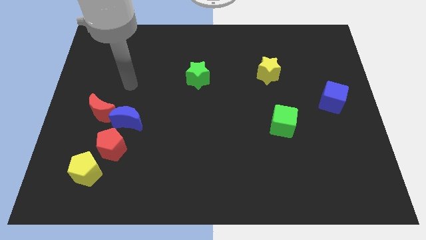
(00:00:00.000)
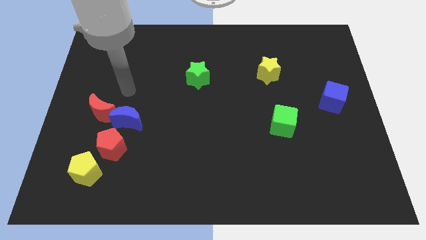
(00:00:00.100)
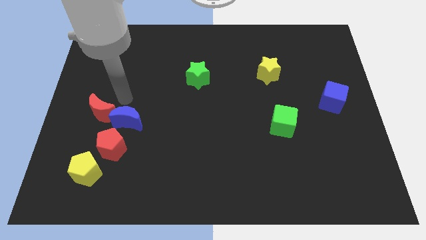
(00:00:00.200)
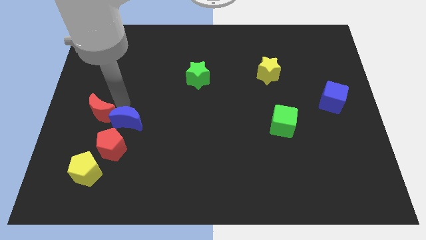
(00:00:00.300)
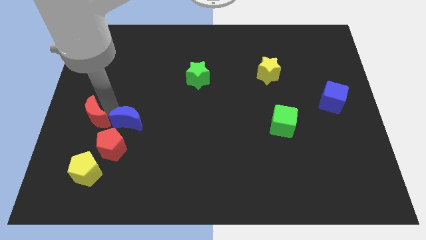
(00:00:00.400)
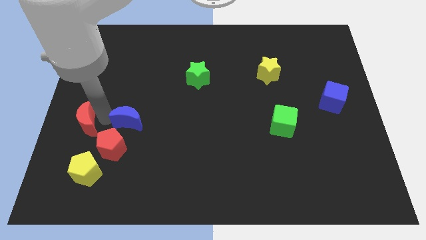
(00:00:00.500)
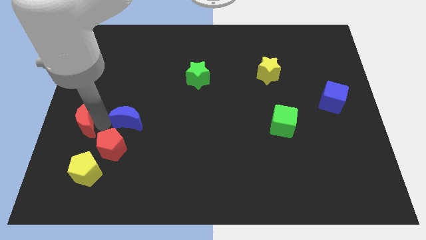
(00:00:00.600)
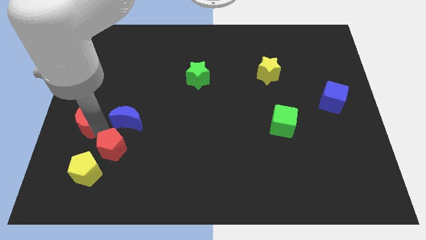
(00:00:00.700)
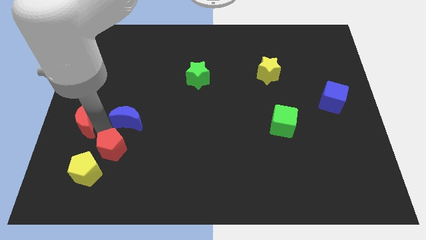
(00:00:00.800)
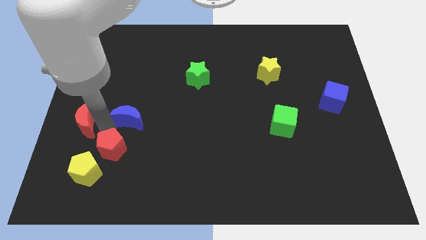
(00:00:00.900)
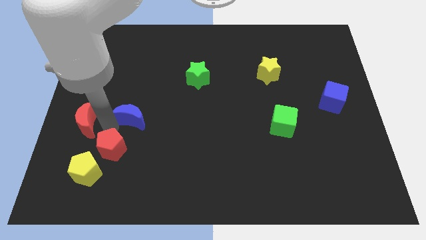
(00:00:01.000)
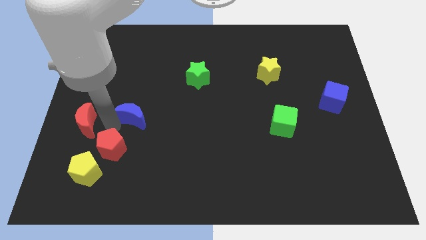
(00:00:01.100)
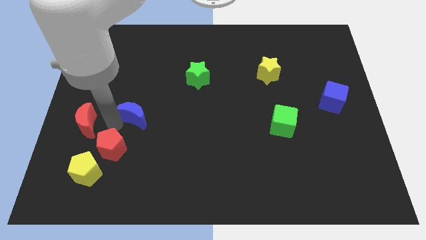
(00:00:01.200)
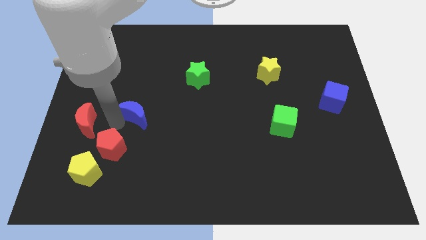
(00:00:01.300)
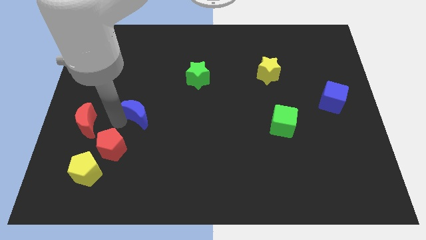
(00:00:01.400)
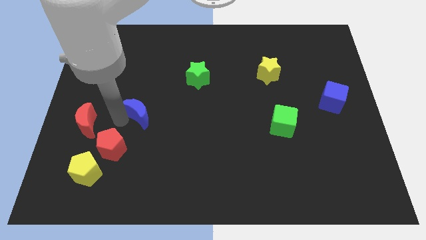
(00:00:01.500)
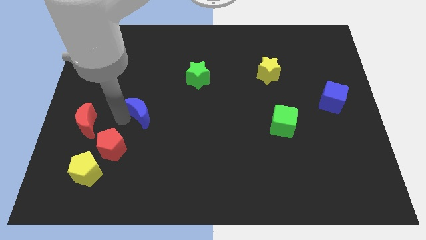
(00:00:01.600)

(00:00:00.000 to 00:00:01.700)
pull the blue moon apart from the red moon and red pentagon

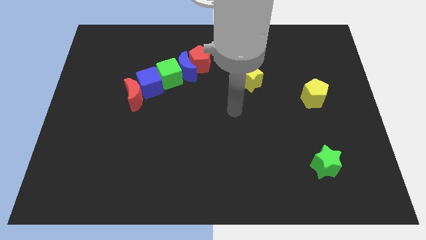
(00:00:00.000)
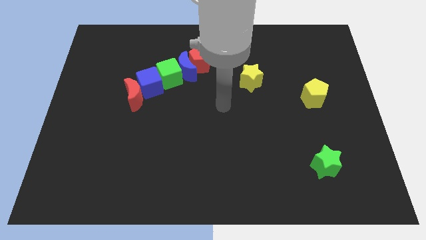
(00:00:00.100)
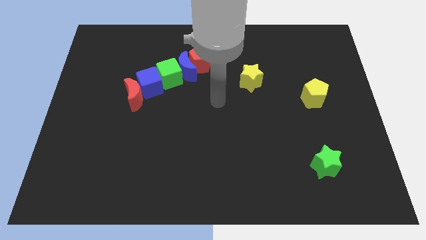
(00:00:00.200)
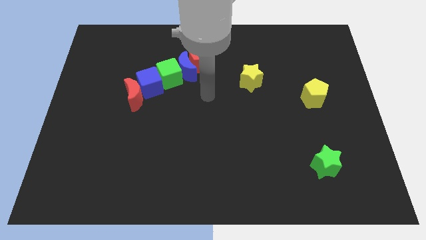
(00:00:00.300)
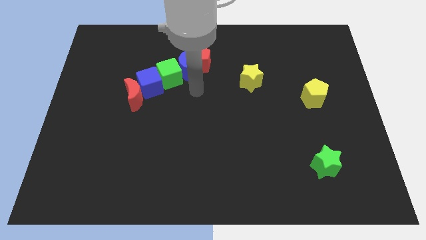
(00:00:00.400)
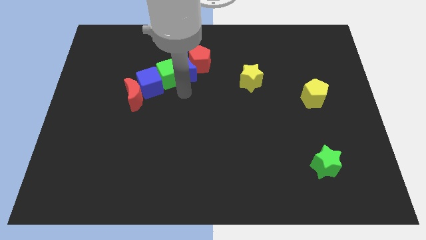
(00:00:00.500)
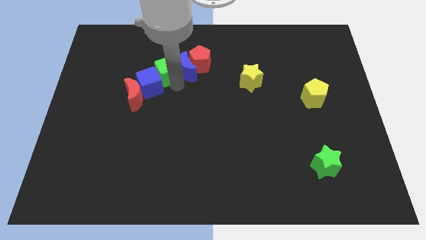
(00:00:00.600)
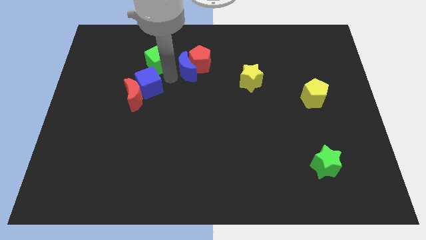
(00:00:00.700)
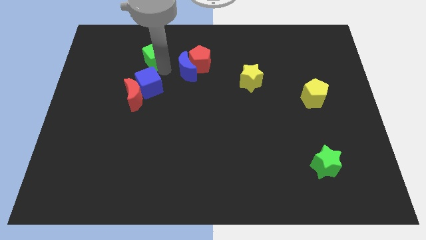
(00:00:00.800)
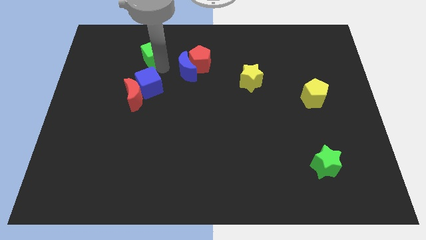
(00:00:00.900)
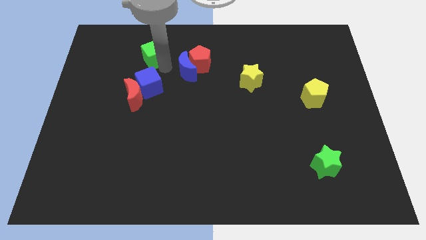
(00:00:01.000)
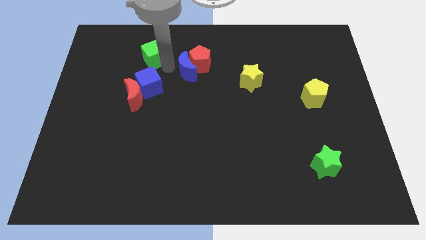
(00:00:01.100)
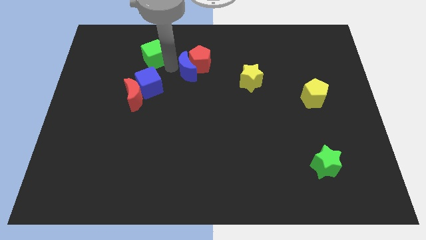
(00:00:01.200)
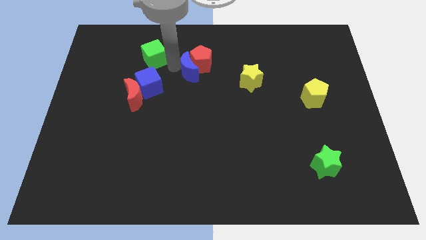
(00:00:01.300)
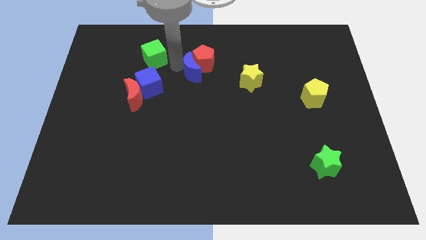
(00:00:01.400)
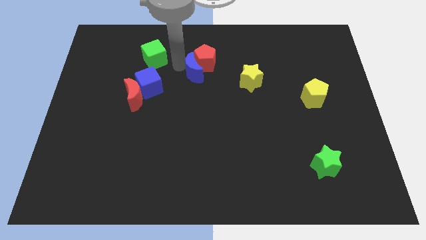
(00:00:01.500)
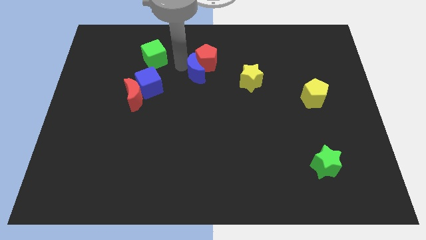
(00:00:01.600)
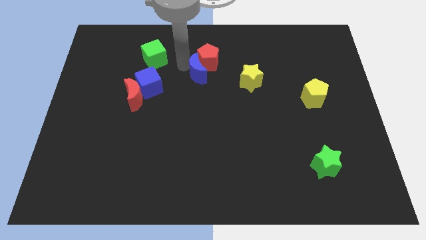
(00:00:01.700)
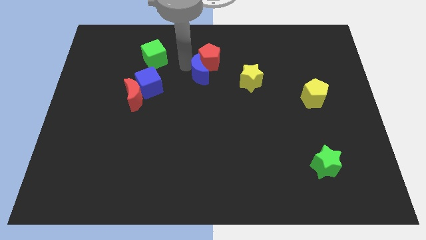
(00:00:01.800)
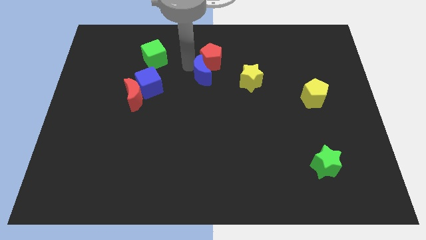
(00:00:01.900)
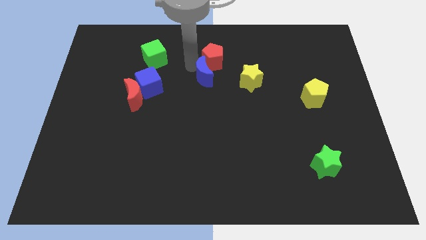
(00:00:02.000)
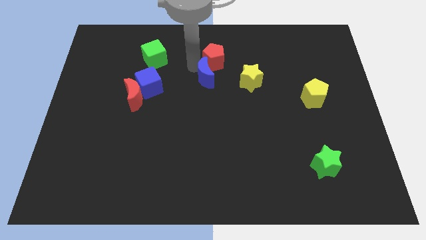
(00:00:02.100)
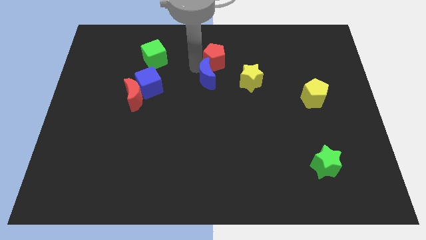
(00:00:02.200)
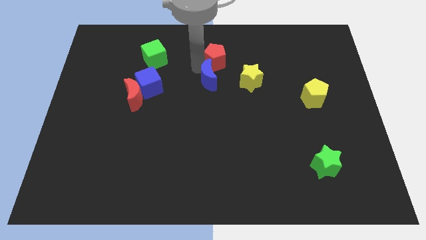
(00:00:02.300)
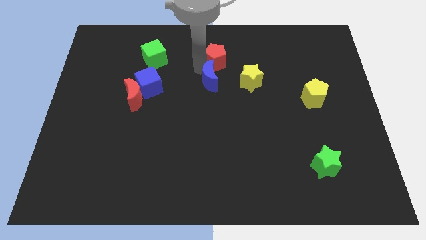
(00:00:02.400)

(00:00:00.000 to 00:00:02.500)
pull the blue moon apart from the group

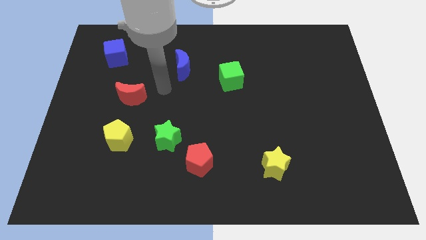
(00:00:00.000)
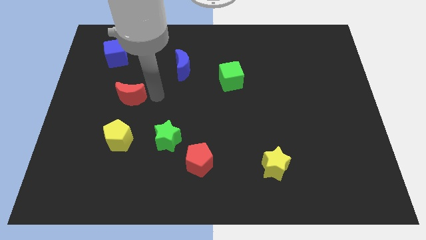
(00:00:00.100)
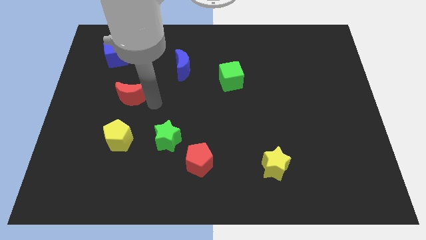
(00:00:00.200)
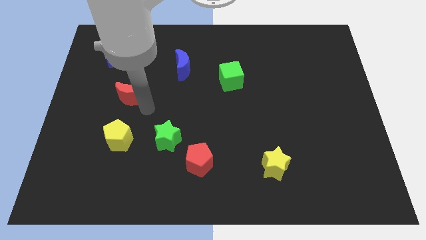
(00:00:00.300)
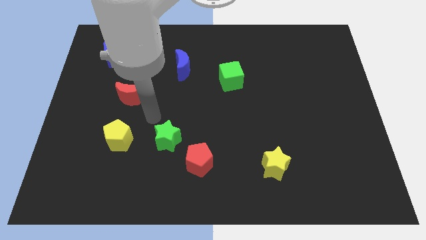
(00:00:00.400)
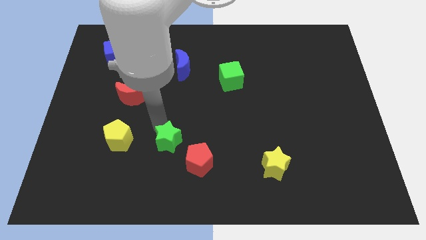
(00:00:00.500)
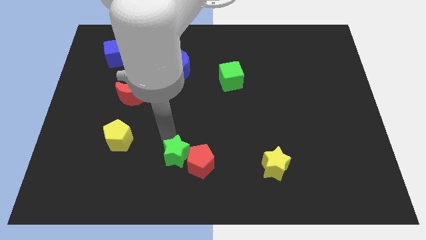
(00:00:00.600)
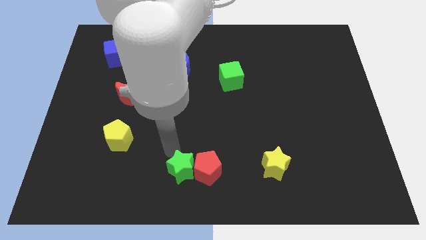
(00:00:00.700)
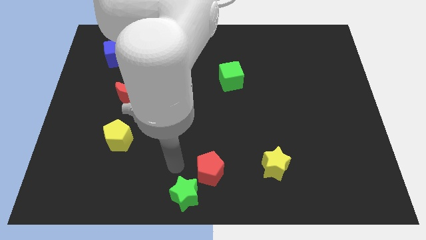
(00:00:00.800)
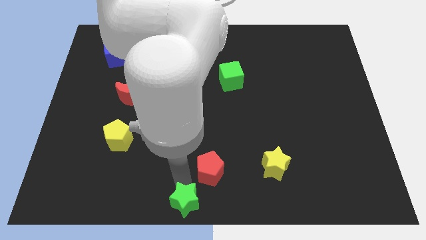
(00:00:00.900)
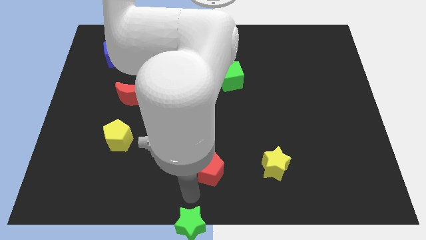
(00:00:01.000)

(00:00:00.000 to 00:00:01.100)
move the red pentagon away from the green star

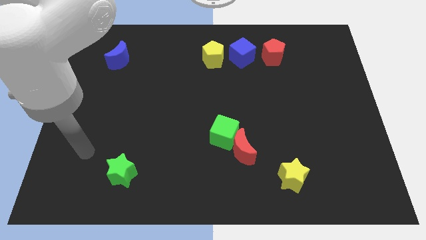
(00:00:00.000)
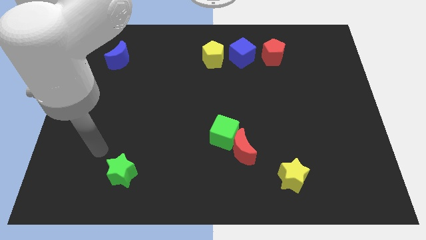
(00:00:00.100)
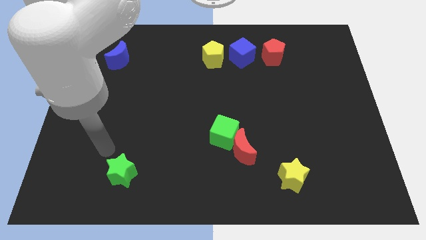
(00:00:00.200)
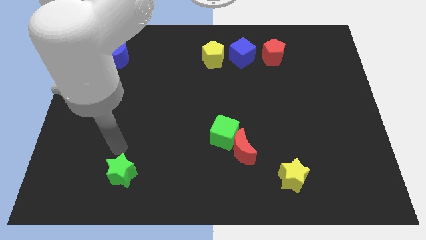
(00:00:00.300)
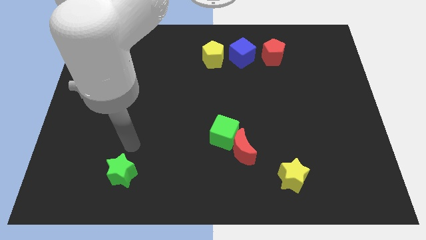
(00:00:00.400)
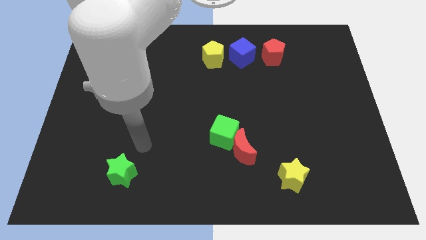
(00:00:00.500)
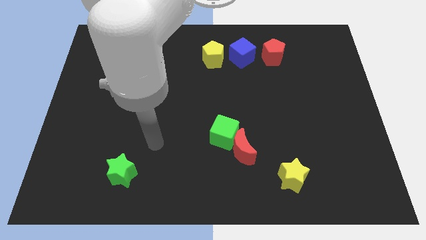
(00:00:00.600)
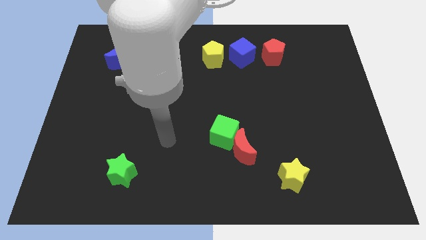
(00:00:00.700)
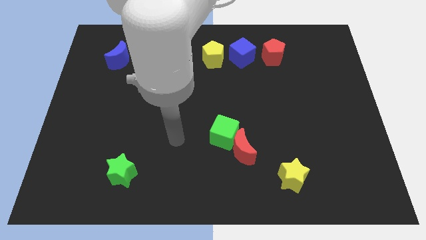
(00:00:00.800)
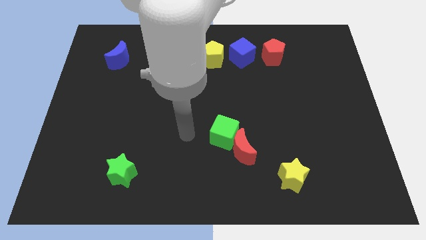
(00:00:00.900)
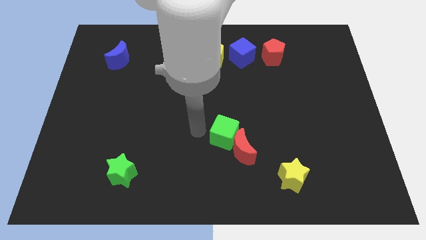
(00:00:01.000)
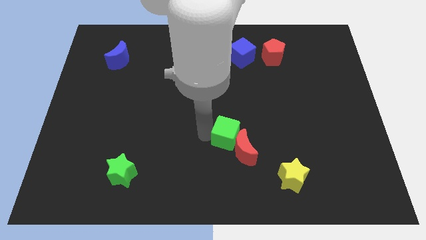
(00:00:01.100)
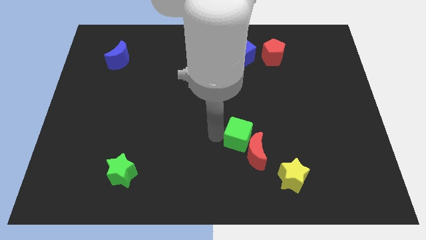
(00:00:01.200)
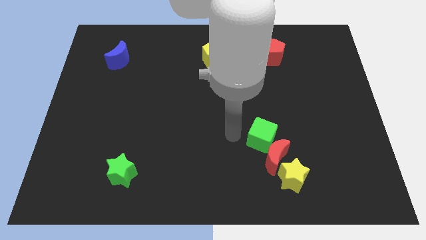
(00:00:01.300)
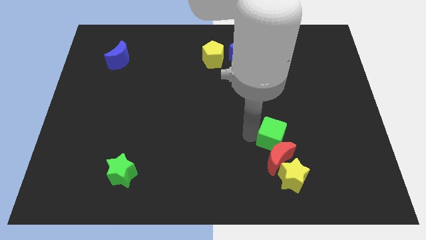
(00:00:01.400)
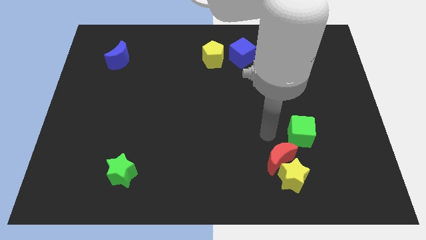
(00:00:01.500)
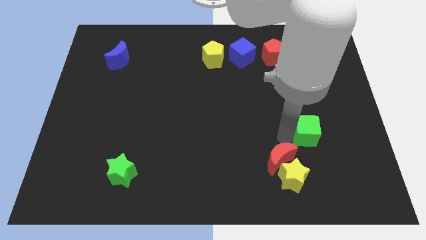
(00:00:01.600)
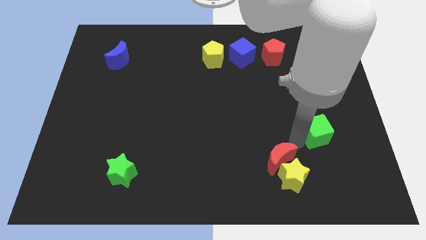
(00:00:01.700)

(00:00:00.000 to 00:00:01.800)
separate the red moon from the green cube

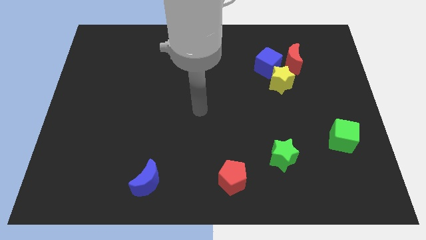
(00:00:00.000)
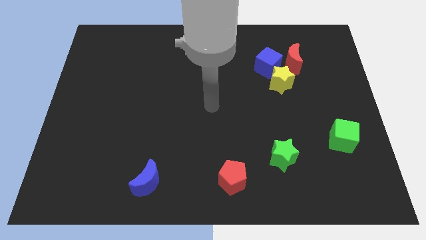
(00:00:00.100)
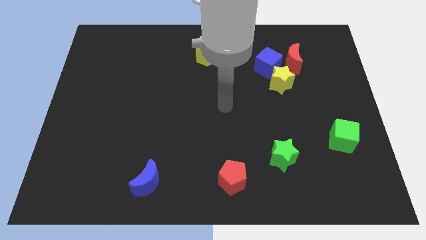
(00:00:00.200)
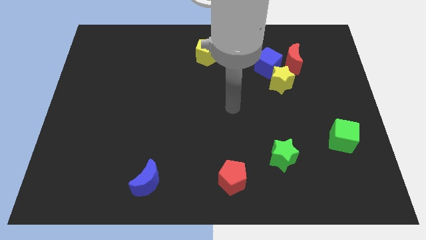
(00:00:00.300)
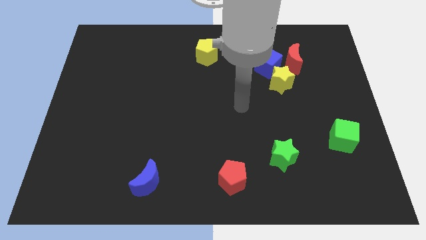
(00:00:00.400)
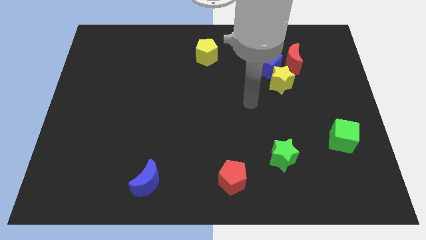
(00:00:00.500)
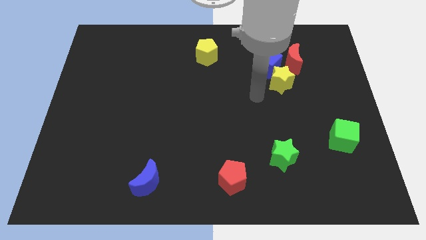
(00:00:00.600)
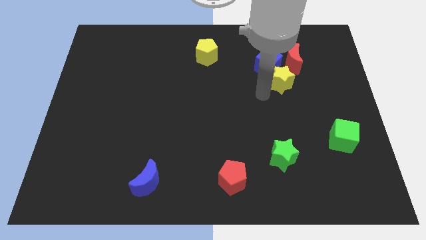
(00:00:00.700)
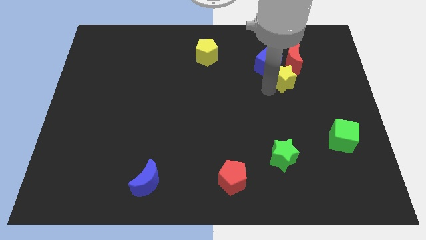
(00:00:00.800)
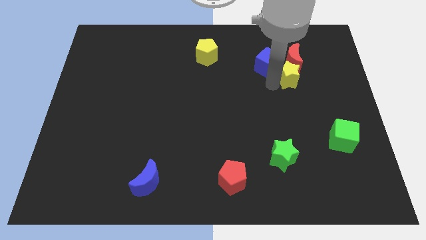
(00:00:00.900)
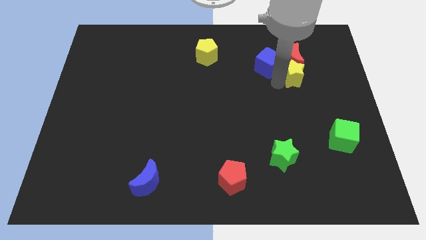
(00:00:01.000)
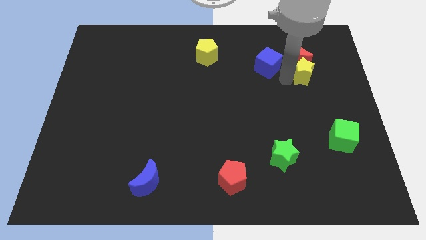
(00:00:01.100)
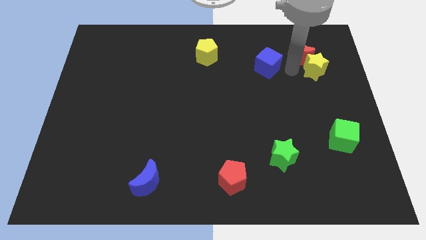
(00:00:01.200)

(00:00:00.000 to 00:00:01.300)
move the blue cube away from the yellow star and red moon

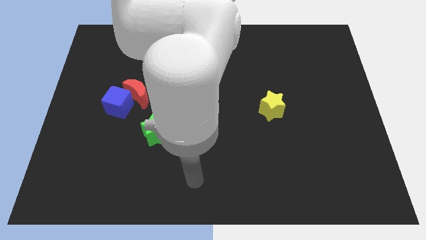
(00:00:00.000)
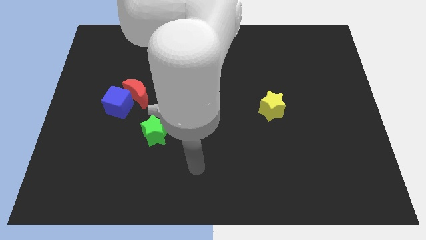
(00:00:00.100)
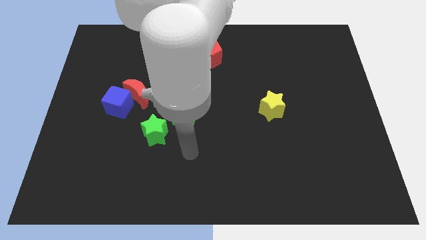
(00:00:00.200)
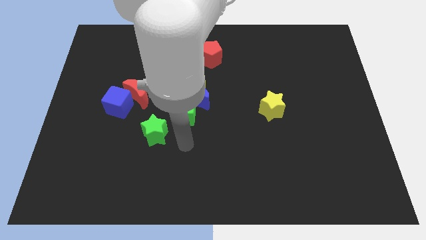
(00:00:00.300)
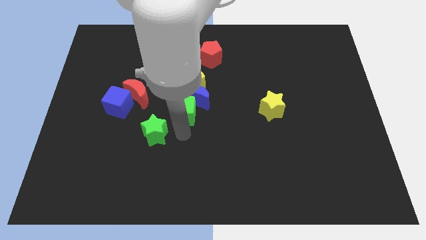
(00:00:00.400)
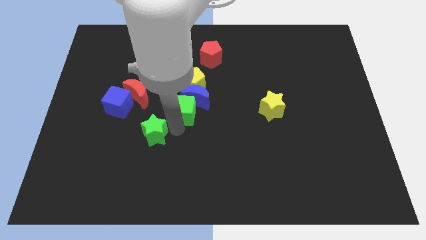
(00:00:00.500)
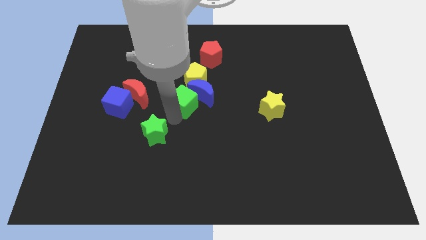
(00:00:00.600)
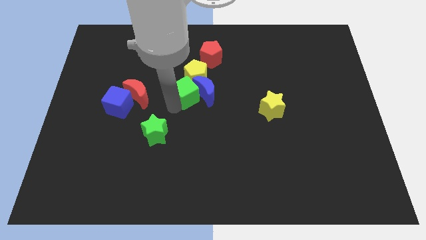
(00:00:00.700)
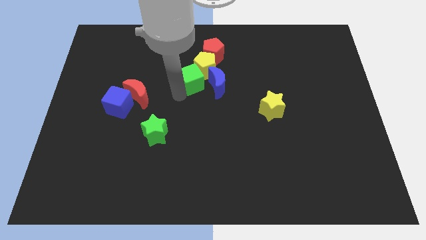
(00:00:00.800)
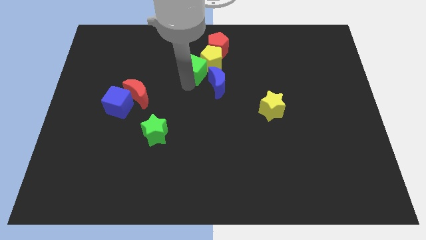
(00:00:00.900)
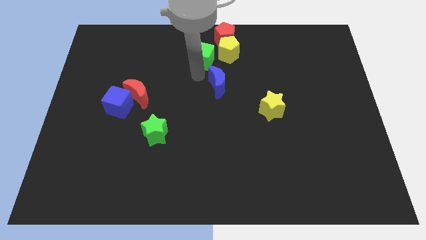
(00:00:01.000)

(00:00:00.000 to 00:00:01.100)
separate the blue moon from the yellow pentagon and green cube
